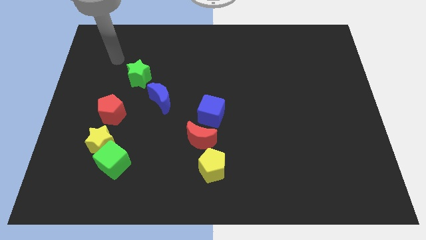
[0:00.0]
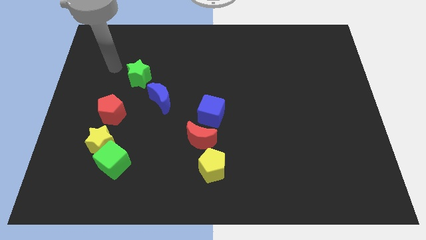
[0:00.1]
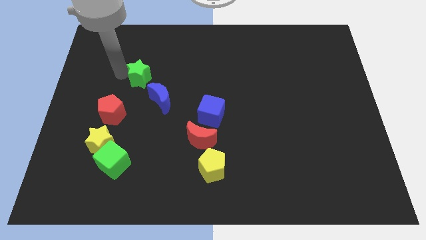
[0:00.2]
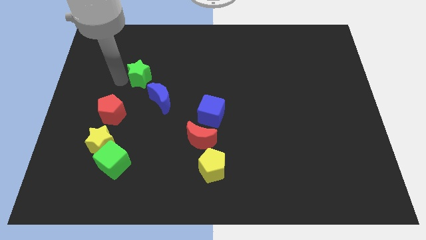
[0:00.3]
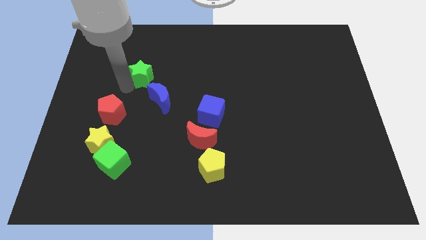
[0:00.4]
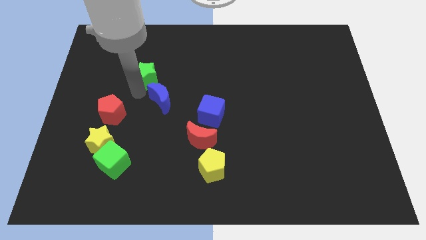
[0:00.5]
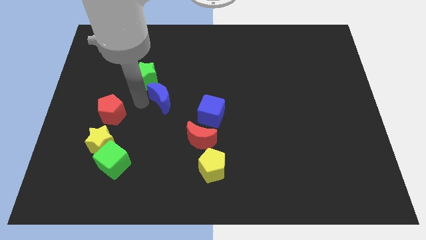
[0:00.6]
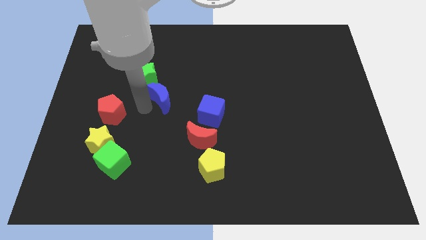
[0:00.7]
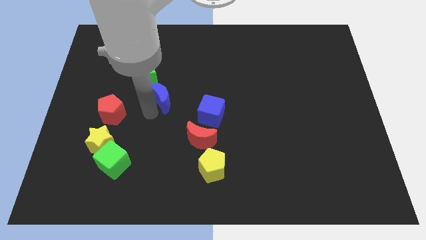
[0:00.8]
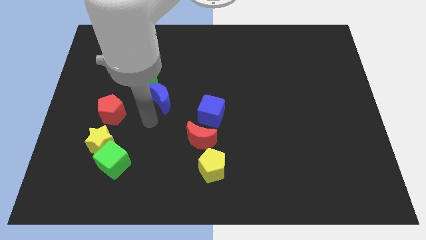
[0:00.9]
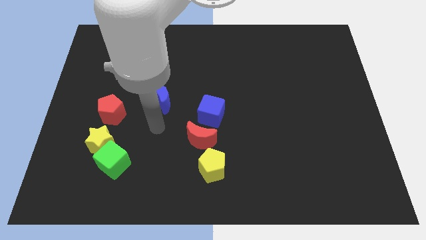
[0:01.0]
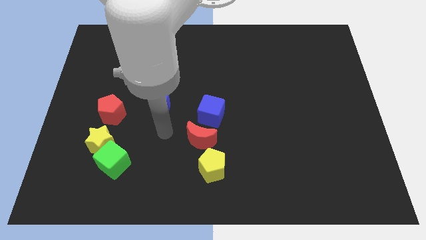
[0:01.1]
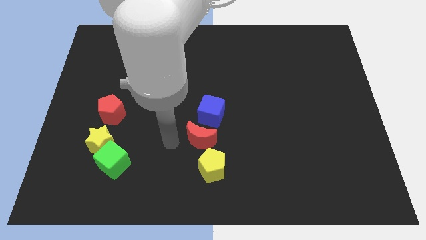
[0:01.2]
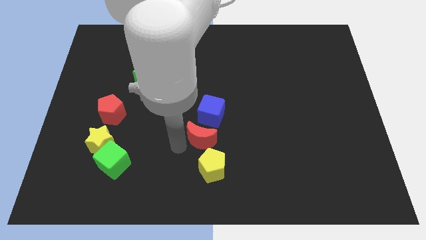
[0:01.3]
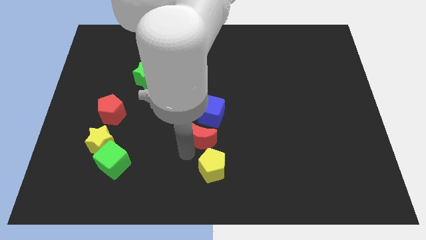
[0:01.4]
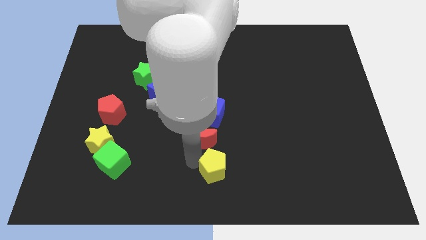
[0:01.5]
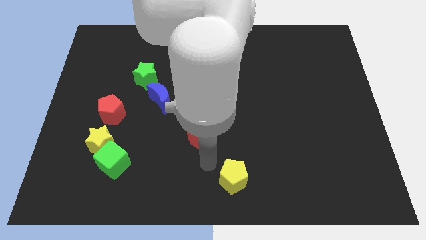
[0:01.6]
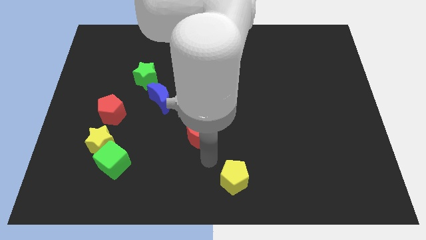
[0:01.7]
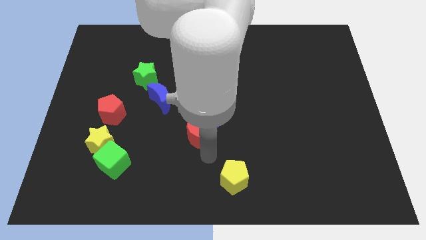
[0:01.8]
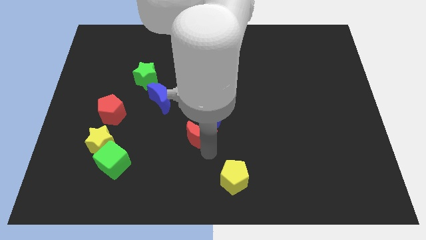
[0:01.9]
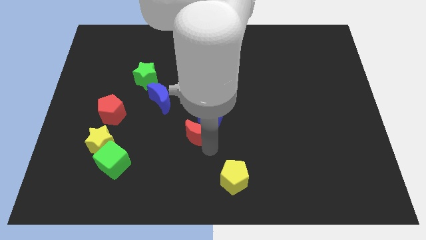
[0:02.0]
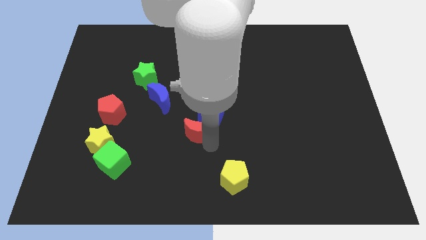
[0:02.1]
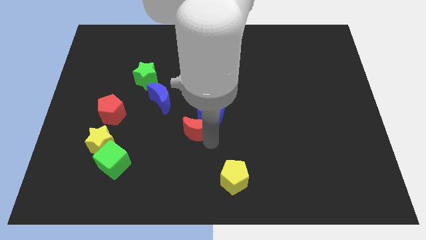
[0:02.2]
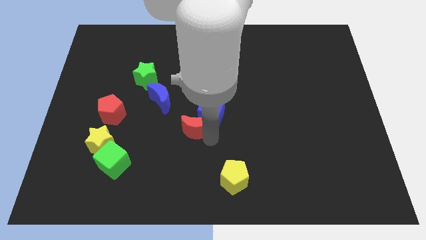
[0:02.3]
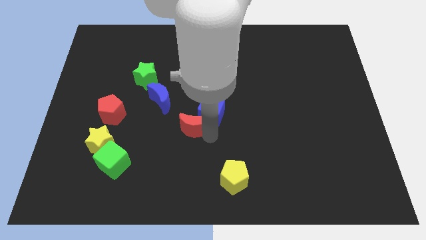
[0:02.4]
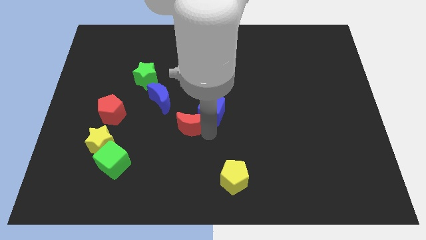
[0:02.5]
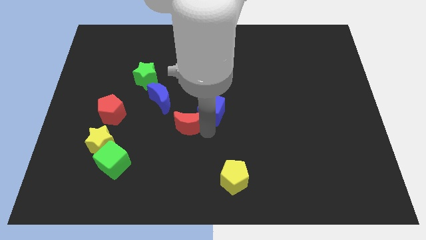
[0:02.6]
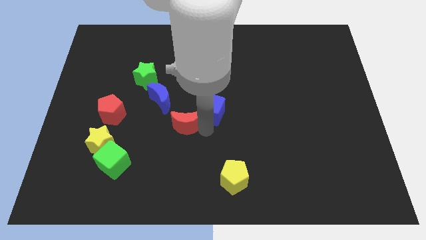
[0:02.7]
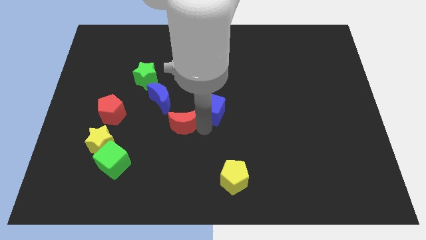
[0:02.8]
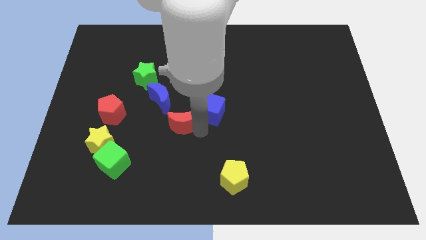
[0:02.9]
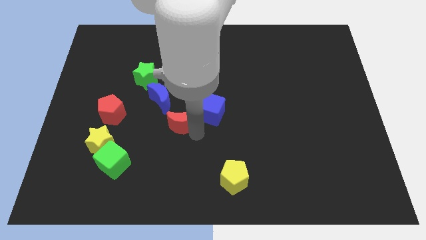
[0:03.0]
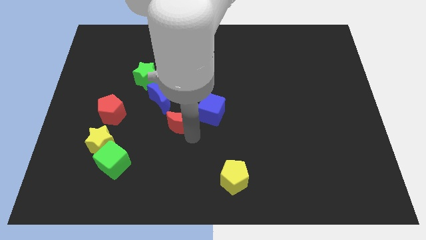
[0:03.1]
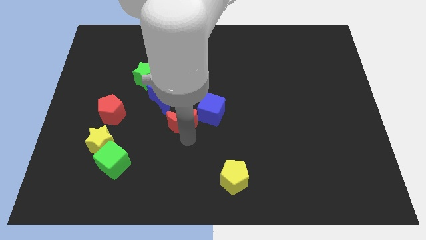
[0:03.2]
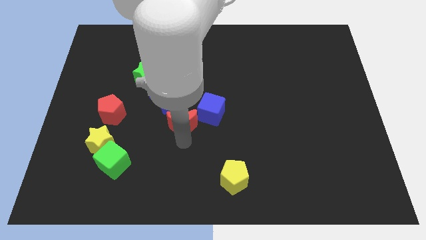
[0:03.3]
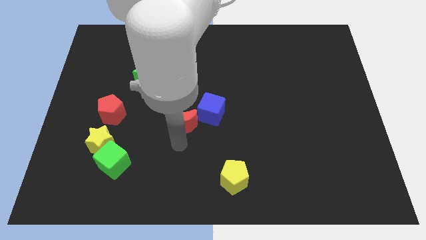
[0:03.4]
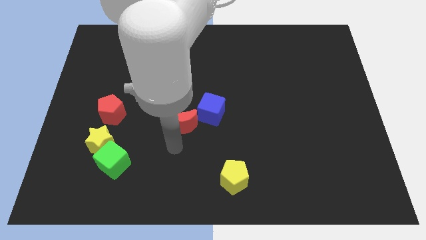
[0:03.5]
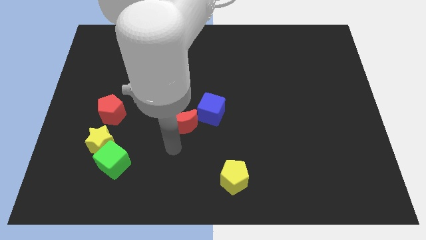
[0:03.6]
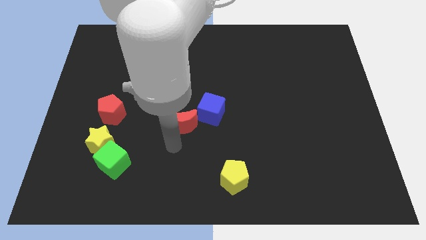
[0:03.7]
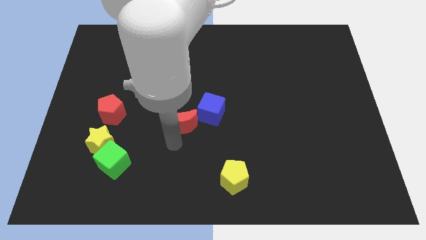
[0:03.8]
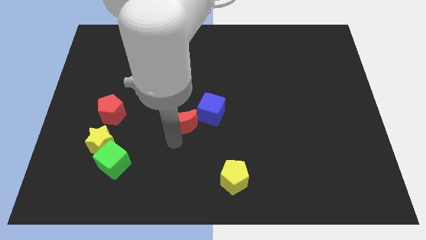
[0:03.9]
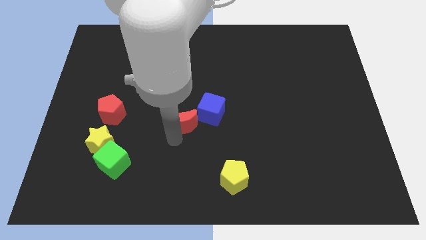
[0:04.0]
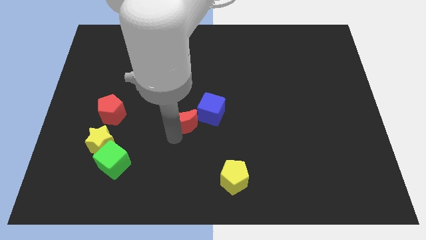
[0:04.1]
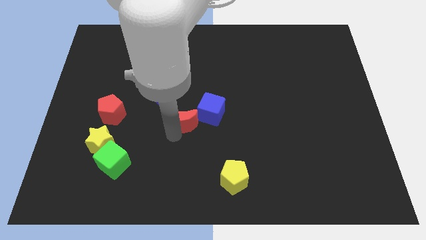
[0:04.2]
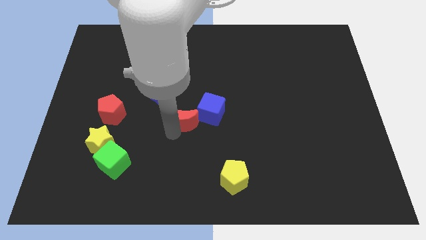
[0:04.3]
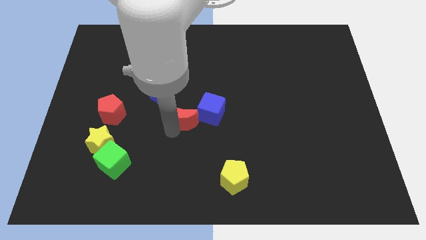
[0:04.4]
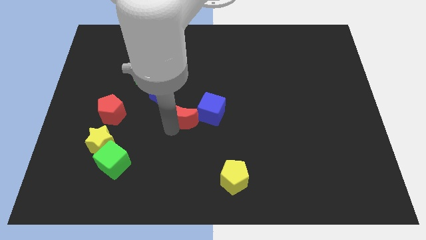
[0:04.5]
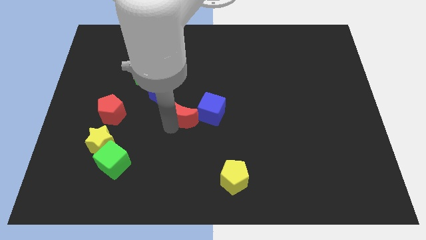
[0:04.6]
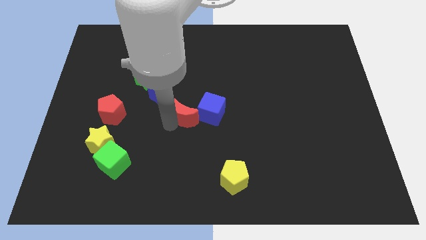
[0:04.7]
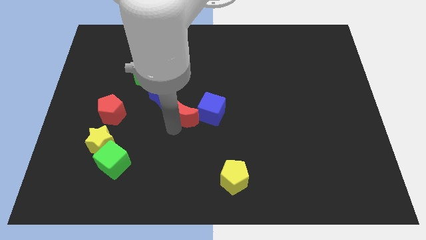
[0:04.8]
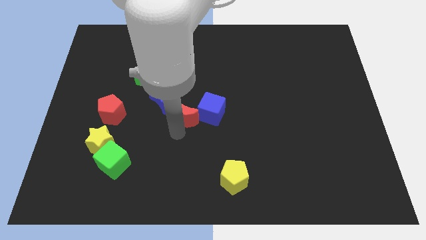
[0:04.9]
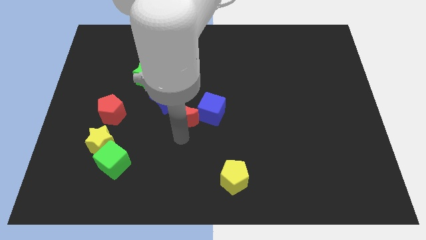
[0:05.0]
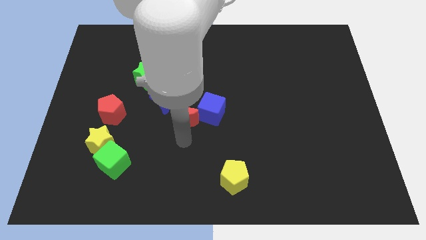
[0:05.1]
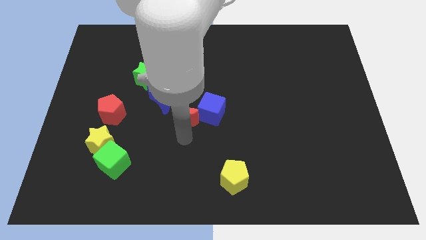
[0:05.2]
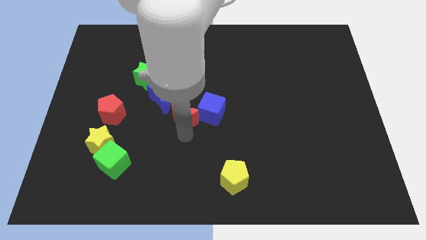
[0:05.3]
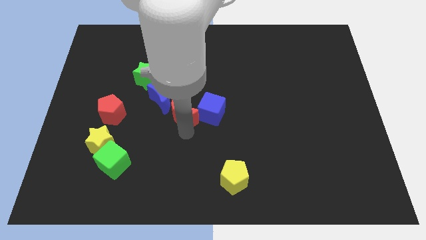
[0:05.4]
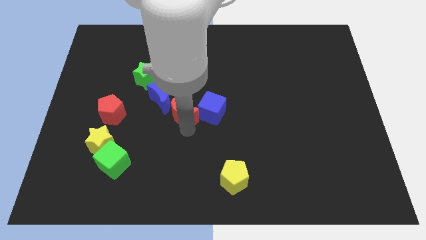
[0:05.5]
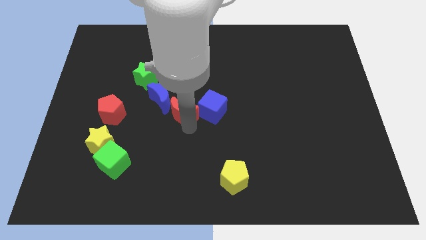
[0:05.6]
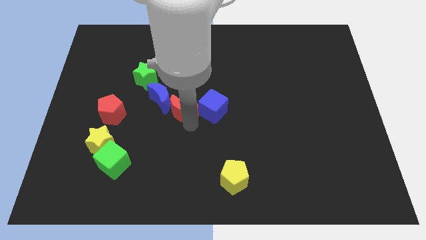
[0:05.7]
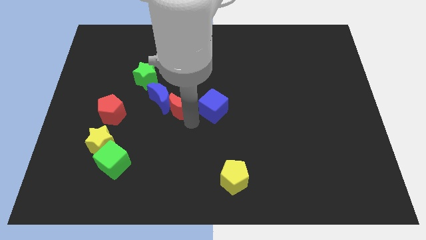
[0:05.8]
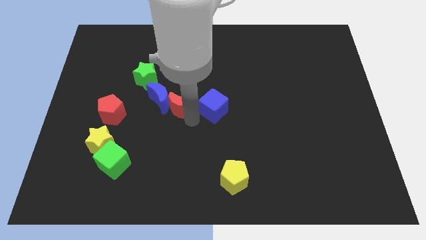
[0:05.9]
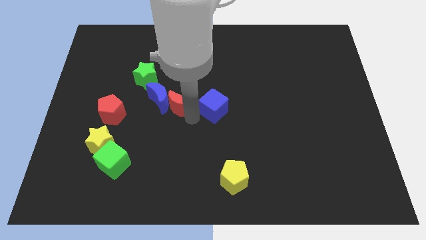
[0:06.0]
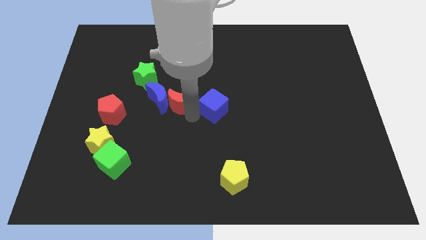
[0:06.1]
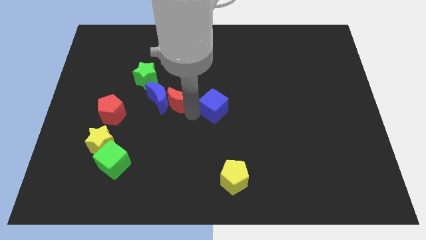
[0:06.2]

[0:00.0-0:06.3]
push the red moon to the top right side of the blue moon

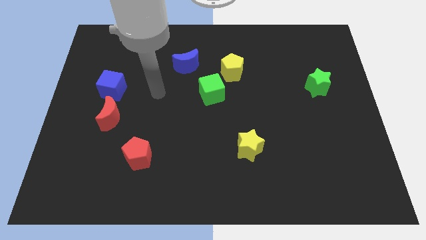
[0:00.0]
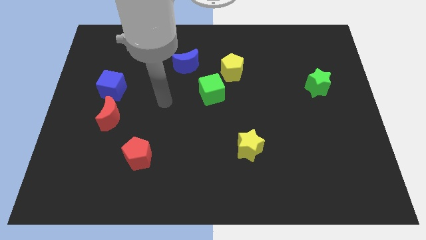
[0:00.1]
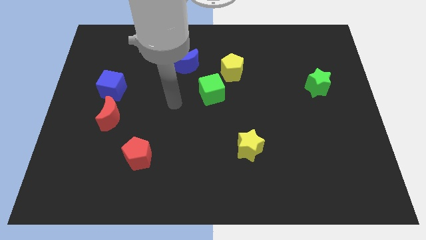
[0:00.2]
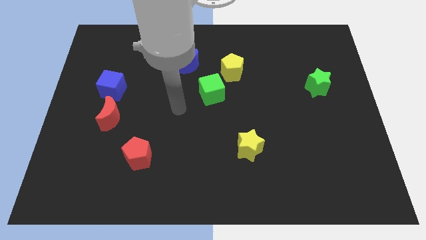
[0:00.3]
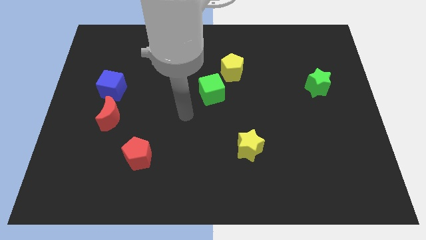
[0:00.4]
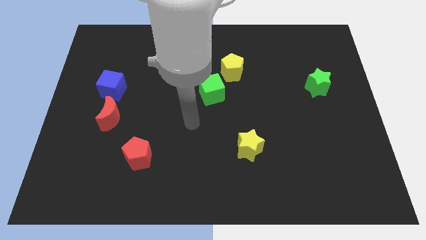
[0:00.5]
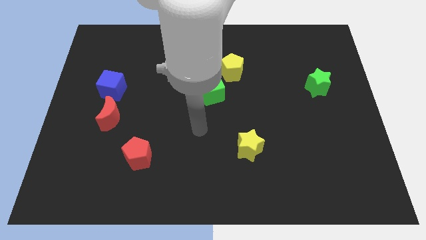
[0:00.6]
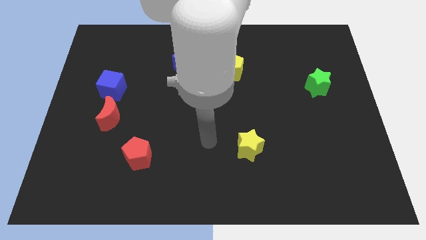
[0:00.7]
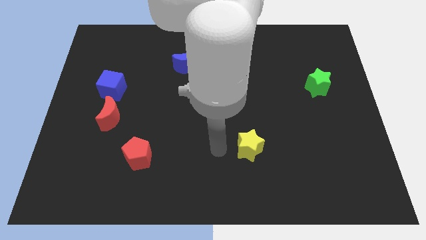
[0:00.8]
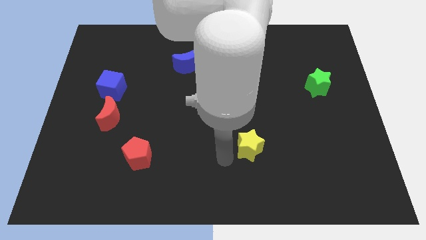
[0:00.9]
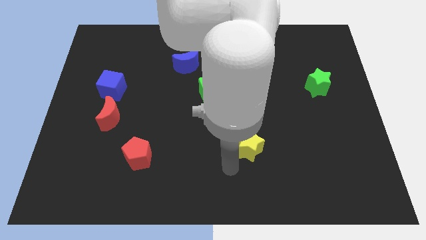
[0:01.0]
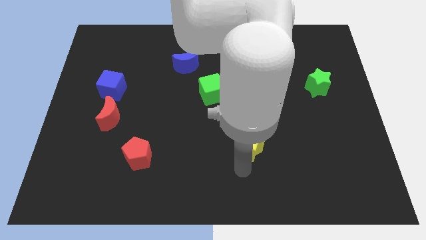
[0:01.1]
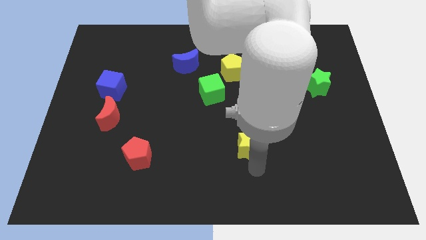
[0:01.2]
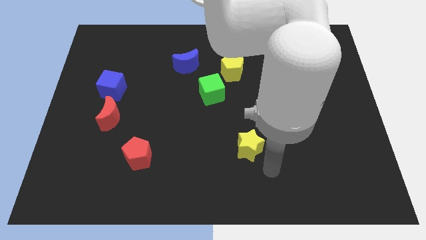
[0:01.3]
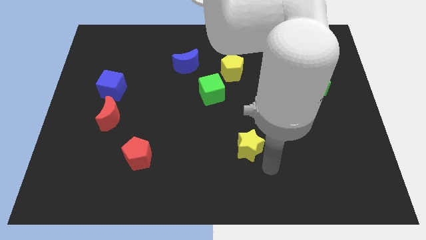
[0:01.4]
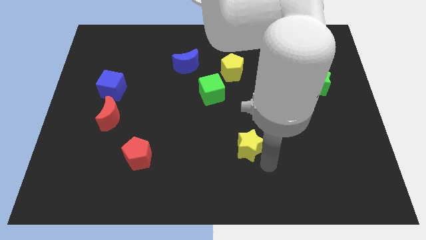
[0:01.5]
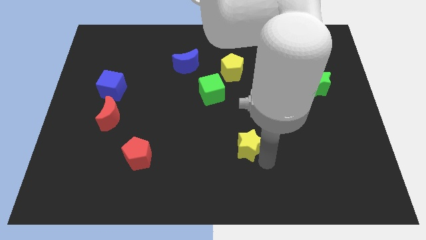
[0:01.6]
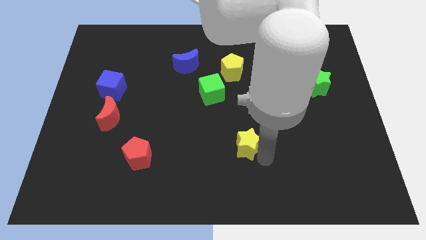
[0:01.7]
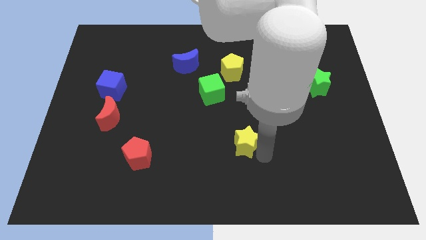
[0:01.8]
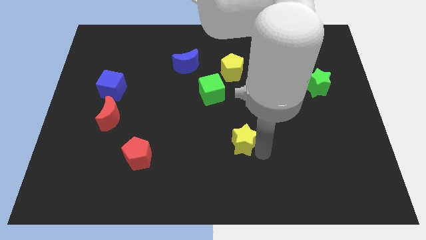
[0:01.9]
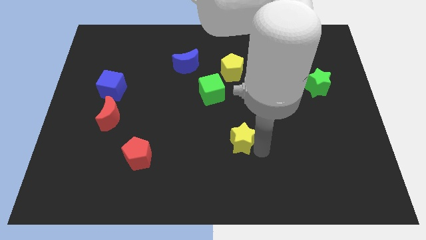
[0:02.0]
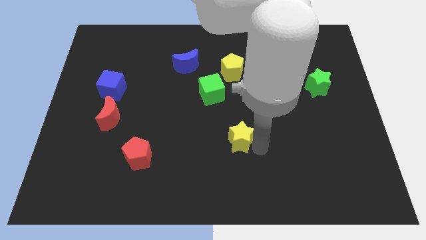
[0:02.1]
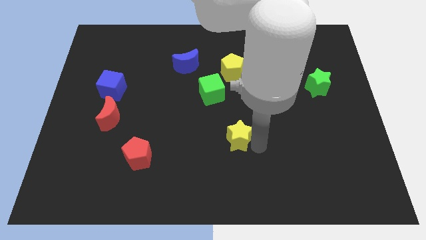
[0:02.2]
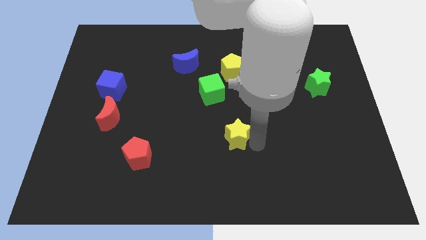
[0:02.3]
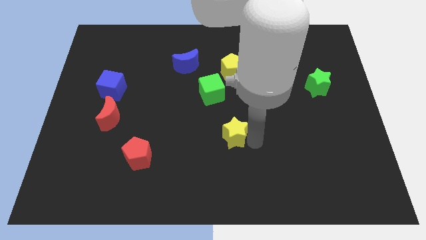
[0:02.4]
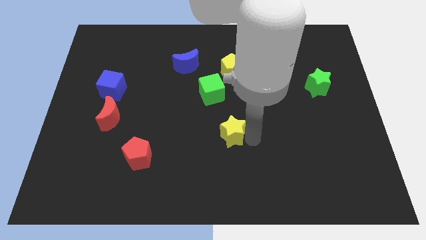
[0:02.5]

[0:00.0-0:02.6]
move the yellow star to the bottom side of the green cube
